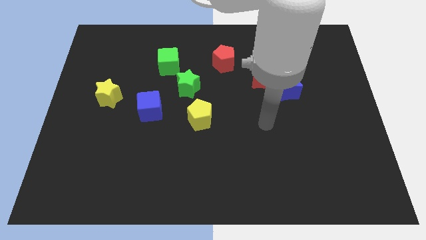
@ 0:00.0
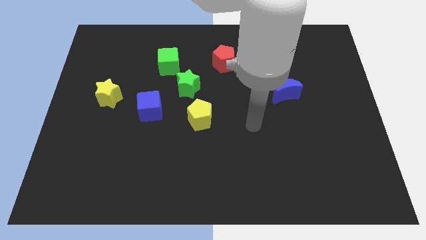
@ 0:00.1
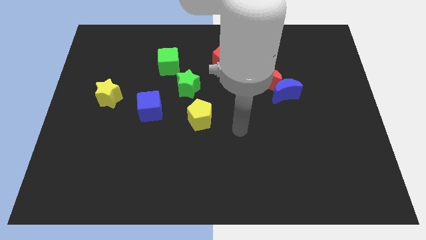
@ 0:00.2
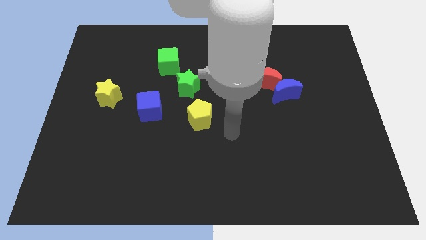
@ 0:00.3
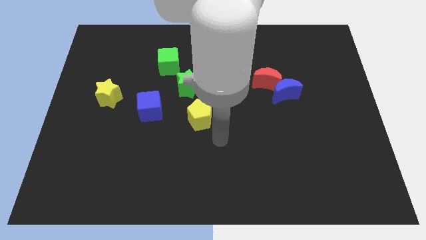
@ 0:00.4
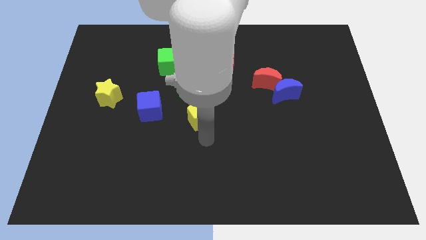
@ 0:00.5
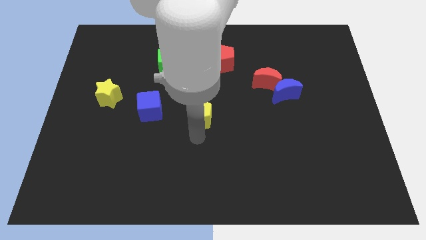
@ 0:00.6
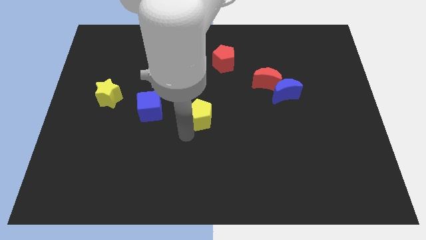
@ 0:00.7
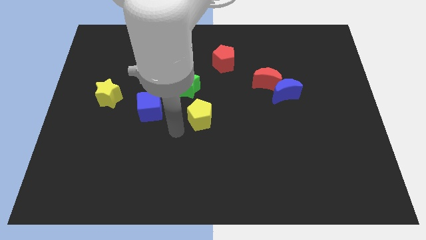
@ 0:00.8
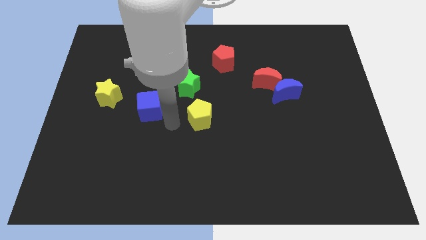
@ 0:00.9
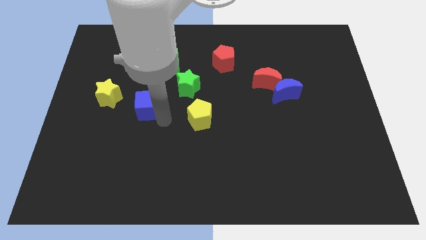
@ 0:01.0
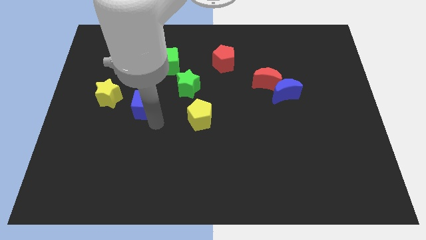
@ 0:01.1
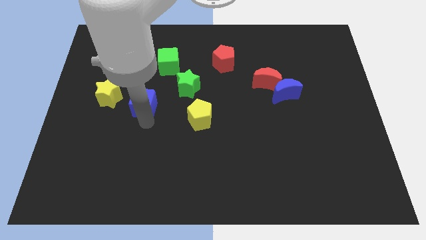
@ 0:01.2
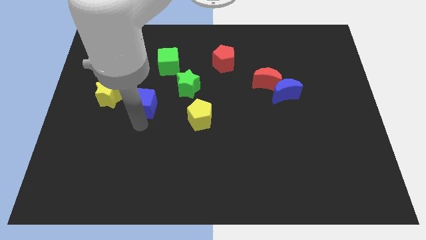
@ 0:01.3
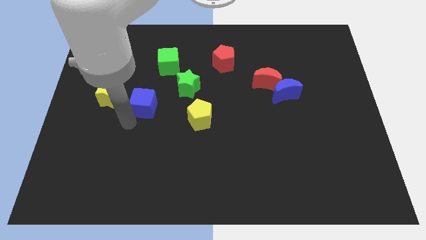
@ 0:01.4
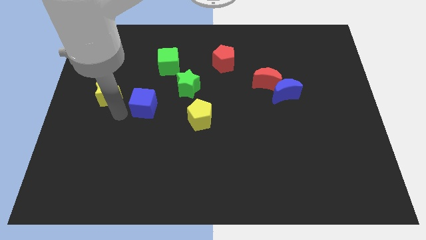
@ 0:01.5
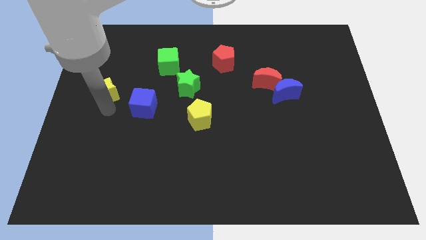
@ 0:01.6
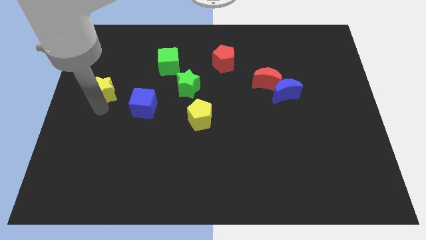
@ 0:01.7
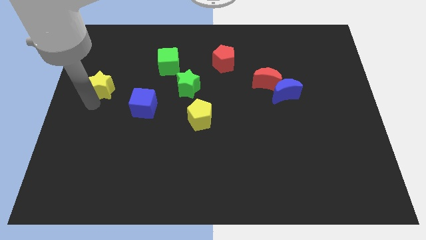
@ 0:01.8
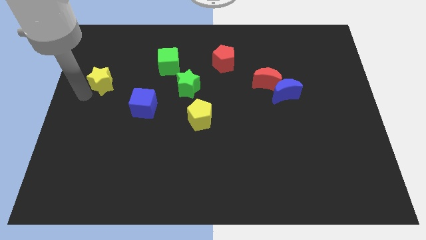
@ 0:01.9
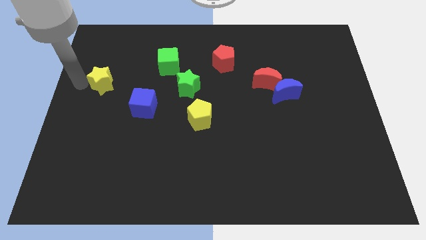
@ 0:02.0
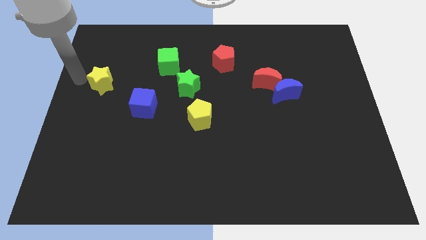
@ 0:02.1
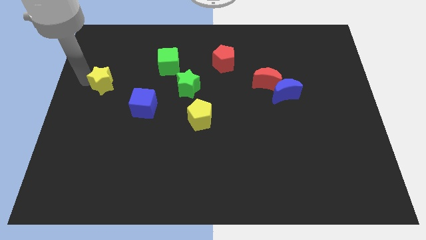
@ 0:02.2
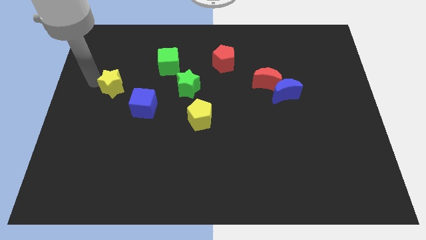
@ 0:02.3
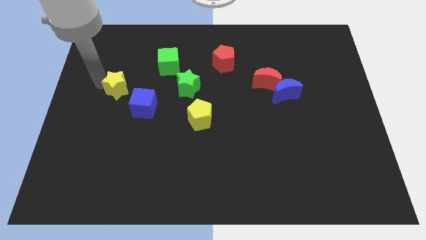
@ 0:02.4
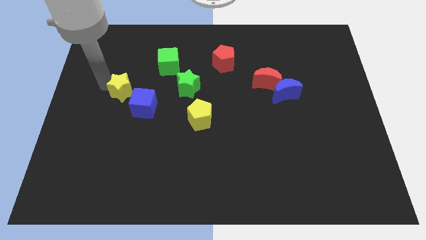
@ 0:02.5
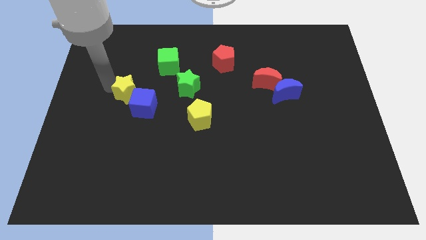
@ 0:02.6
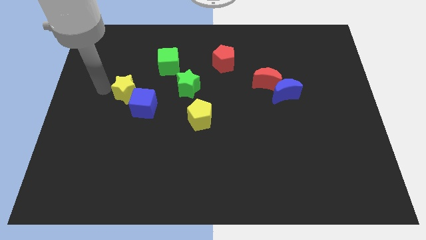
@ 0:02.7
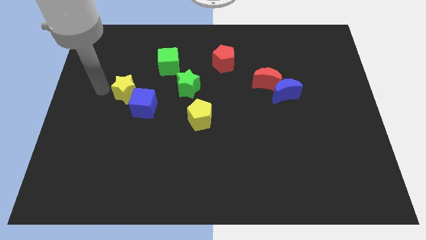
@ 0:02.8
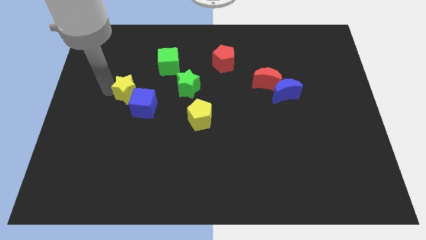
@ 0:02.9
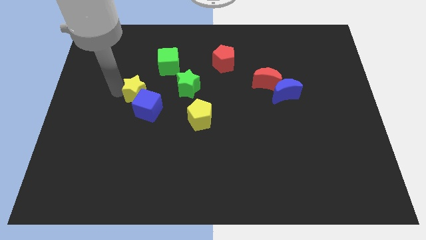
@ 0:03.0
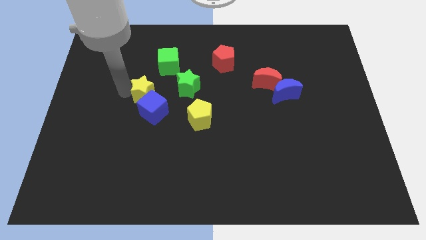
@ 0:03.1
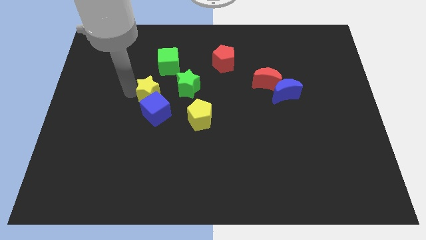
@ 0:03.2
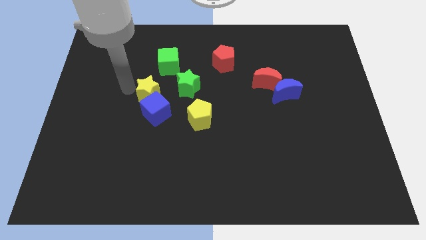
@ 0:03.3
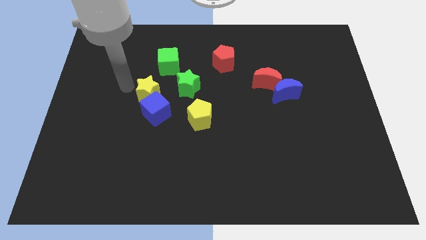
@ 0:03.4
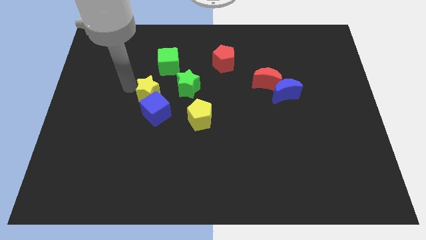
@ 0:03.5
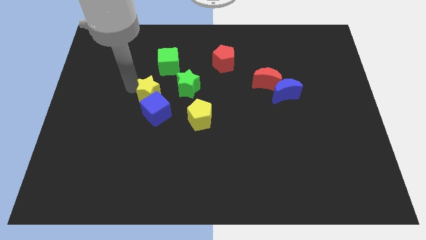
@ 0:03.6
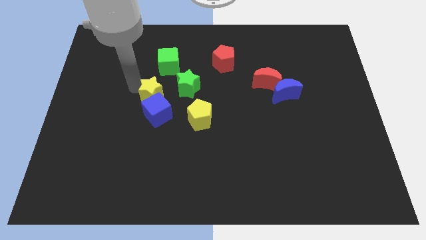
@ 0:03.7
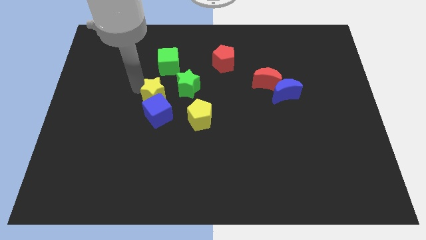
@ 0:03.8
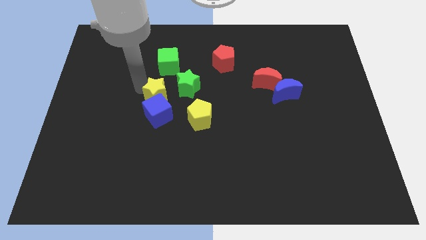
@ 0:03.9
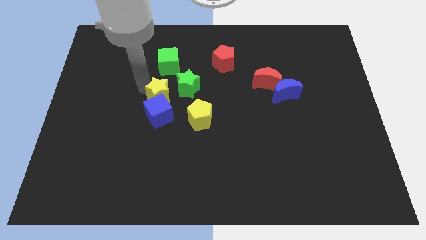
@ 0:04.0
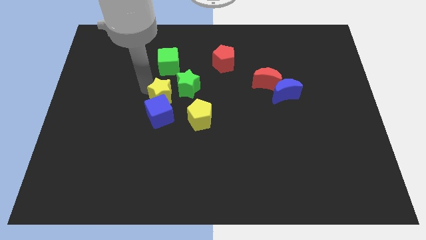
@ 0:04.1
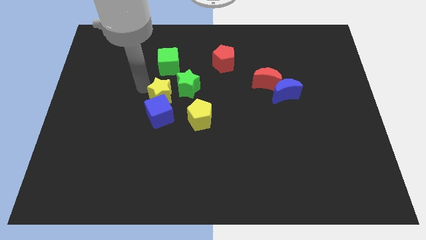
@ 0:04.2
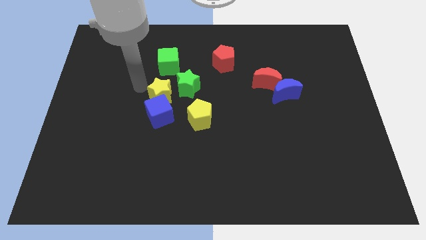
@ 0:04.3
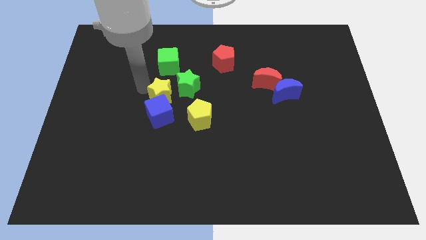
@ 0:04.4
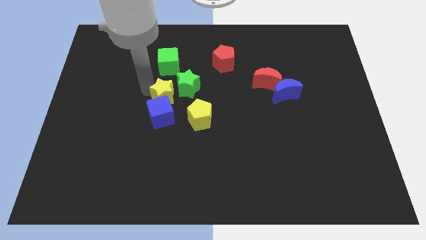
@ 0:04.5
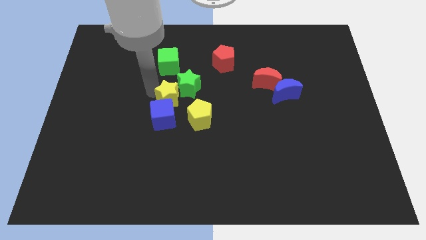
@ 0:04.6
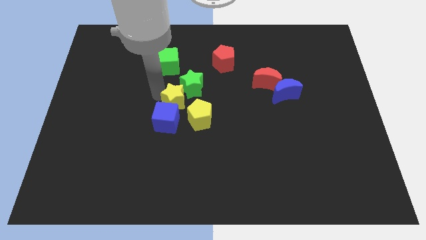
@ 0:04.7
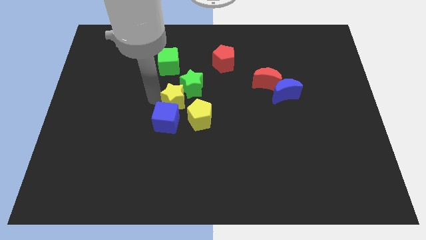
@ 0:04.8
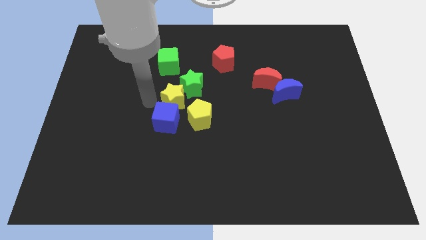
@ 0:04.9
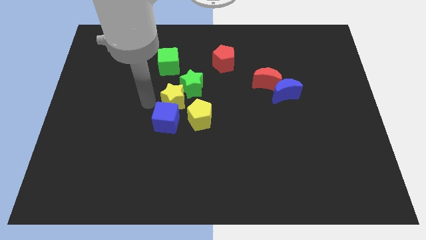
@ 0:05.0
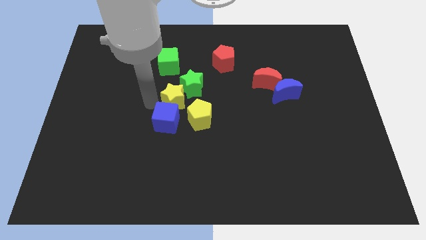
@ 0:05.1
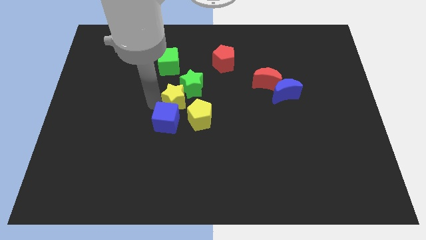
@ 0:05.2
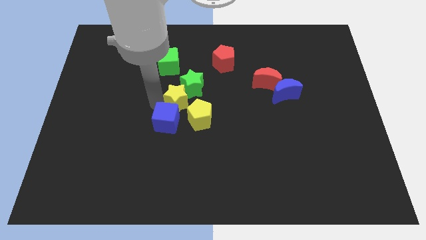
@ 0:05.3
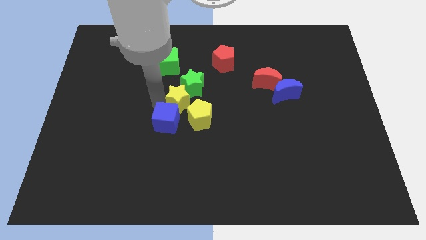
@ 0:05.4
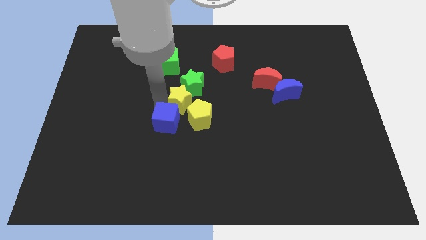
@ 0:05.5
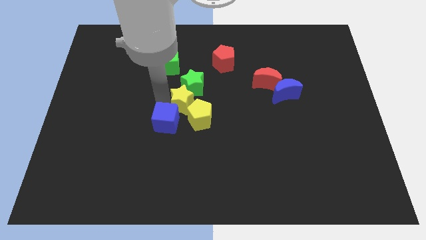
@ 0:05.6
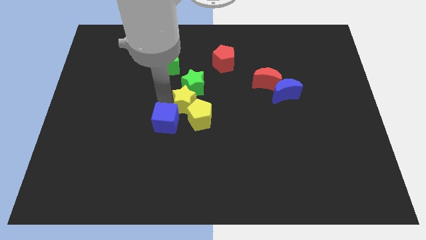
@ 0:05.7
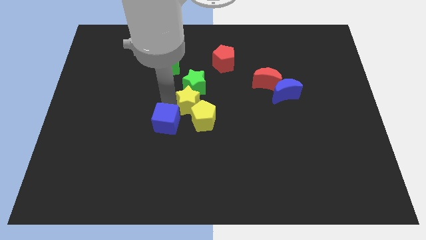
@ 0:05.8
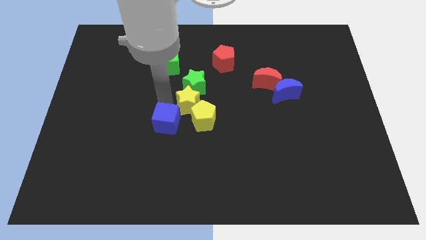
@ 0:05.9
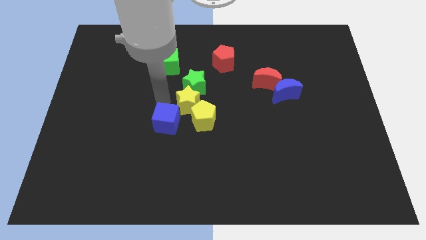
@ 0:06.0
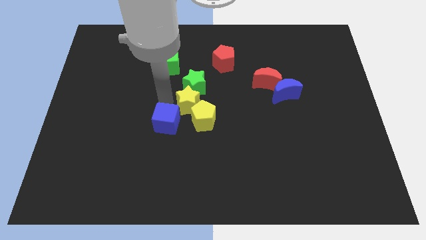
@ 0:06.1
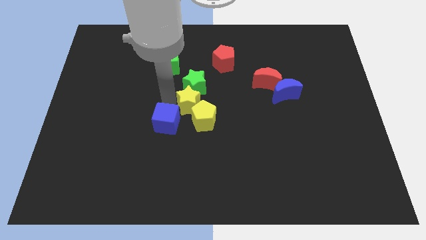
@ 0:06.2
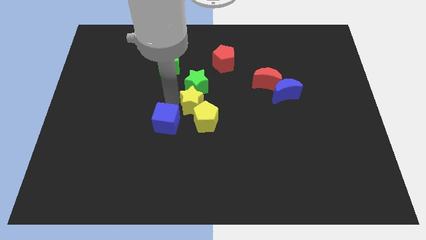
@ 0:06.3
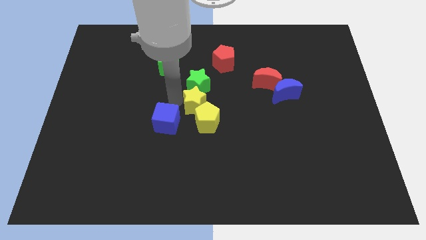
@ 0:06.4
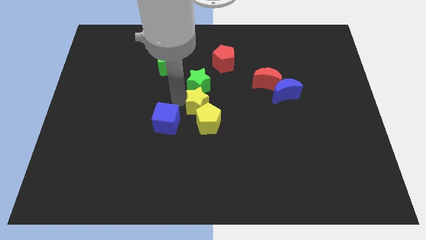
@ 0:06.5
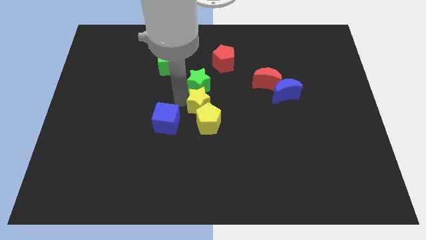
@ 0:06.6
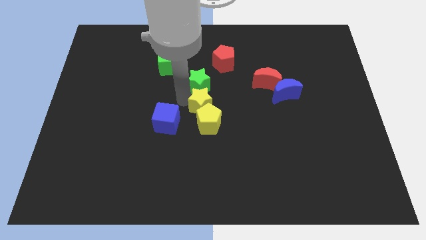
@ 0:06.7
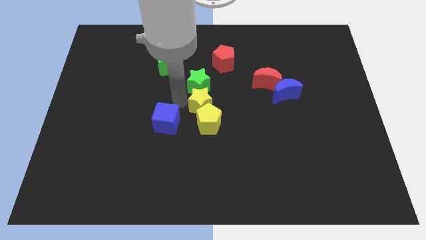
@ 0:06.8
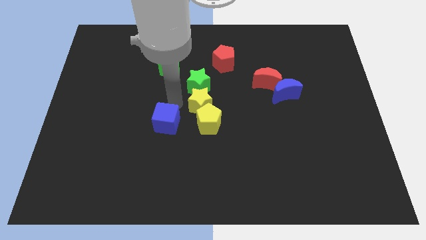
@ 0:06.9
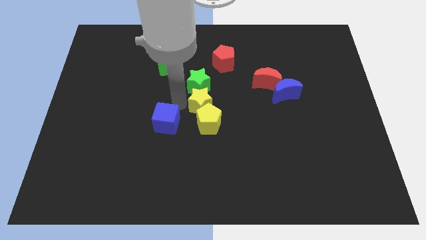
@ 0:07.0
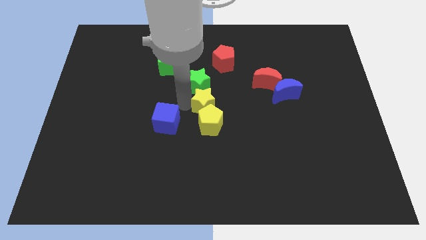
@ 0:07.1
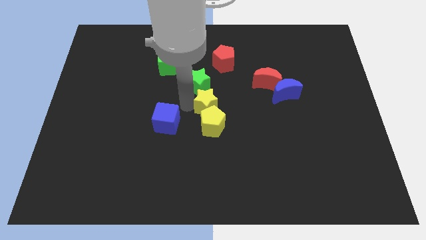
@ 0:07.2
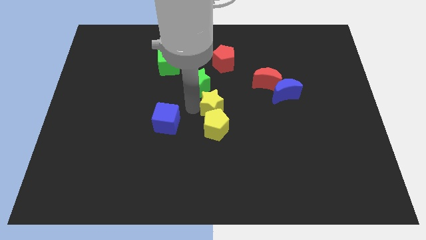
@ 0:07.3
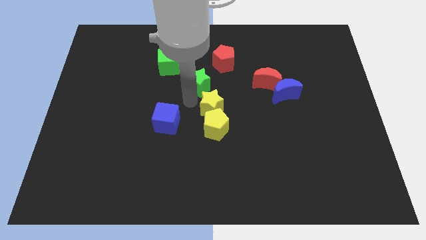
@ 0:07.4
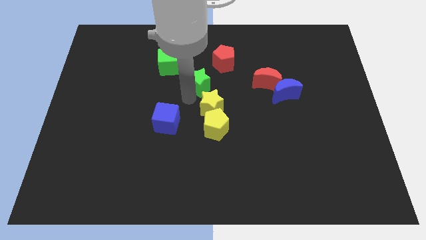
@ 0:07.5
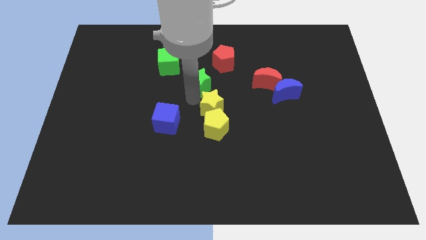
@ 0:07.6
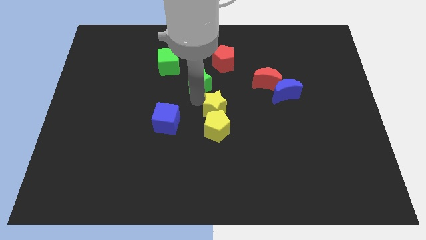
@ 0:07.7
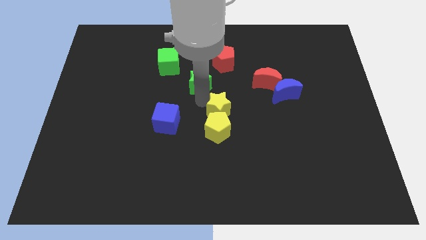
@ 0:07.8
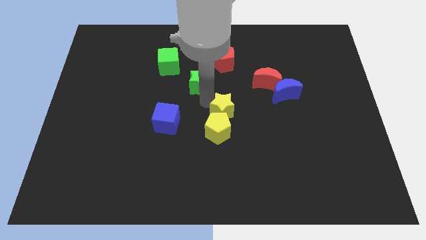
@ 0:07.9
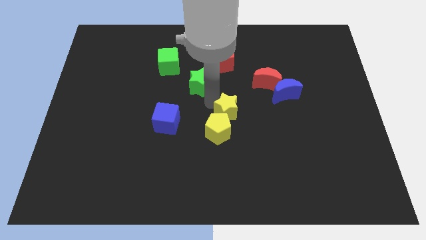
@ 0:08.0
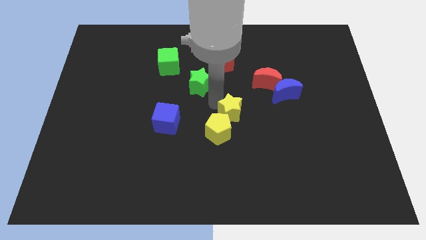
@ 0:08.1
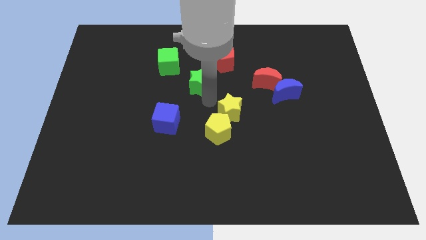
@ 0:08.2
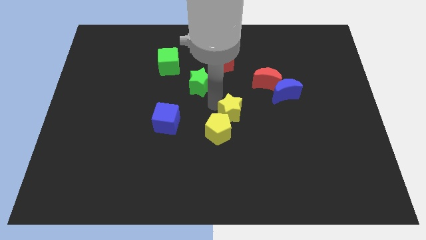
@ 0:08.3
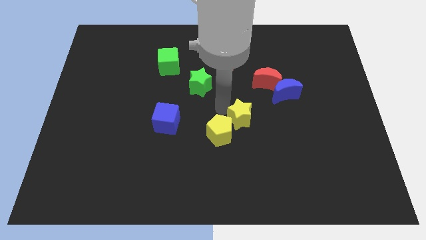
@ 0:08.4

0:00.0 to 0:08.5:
push the yellow star to the right side of the yellow pentagon
